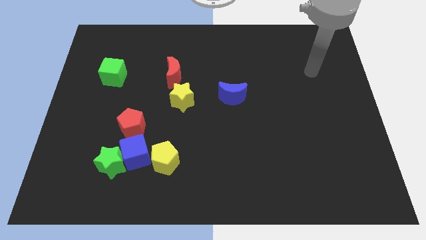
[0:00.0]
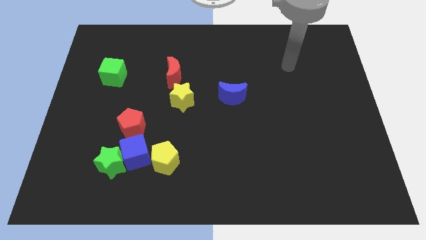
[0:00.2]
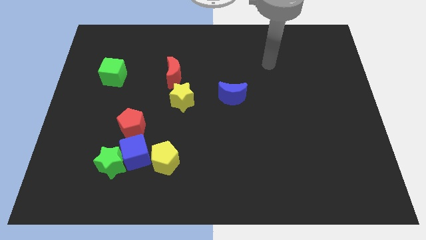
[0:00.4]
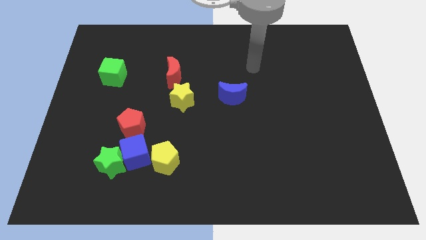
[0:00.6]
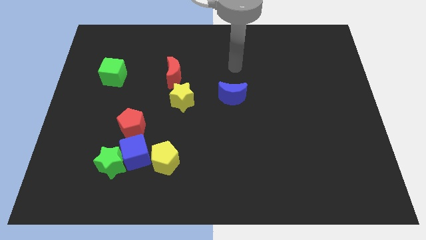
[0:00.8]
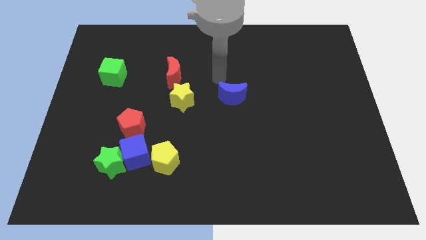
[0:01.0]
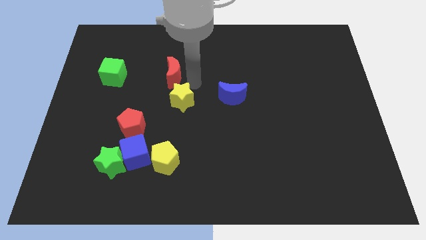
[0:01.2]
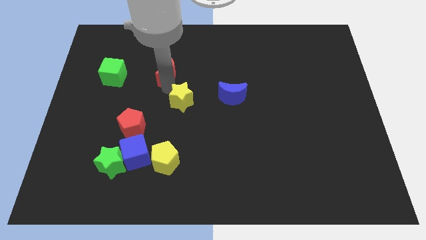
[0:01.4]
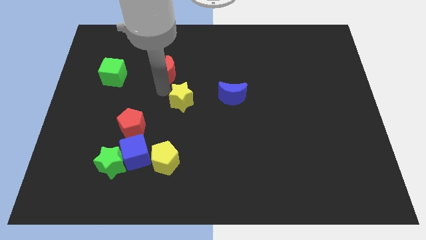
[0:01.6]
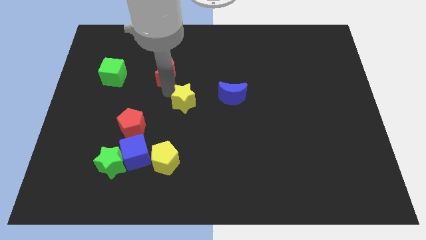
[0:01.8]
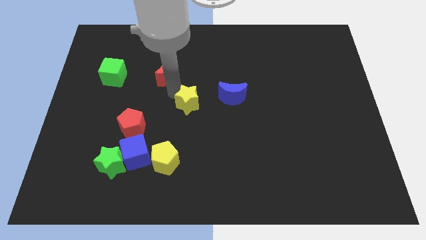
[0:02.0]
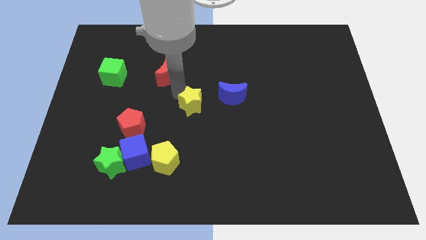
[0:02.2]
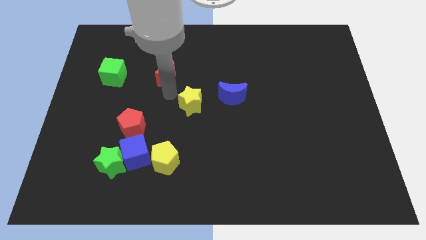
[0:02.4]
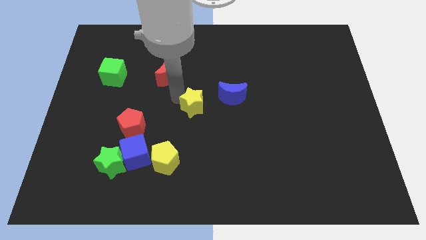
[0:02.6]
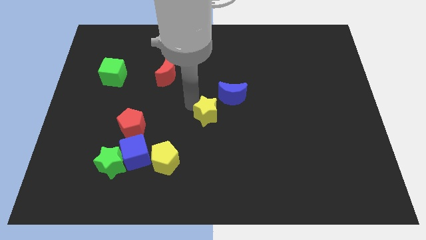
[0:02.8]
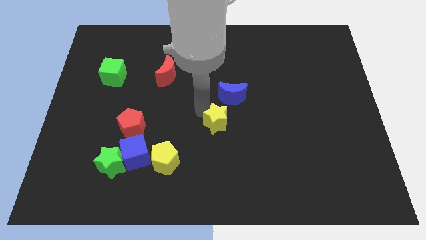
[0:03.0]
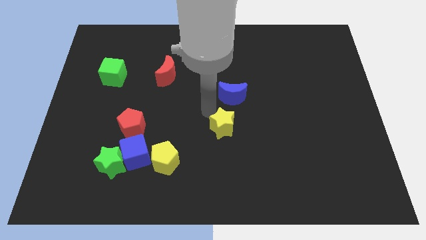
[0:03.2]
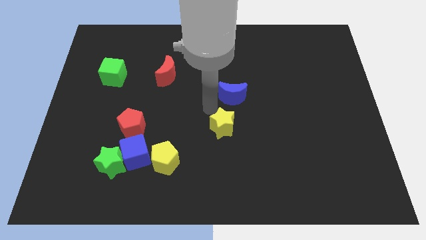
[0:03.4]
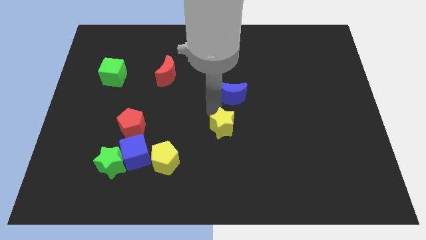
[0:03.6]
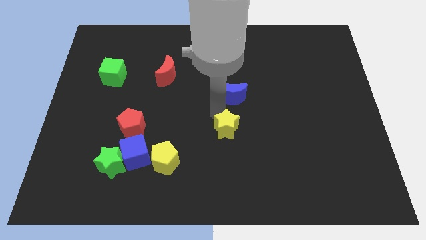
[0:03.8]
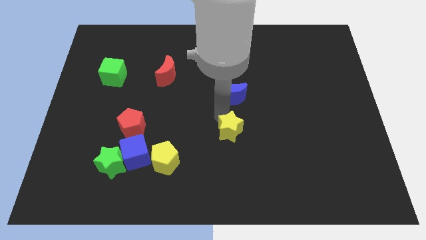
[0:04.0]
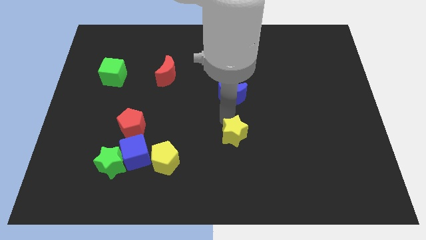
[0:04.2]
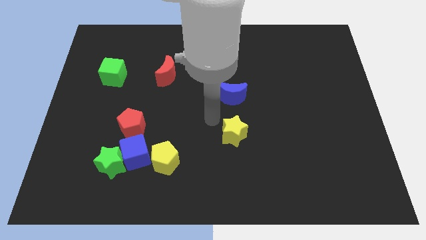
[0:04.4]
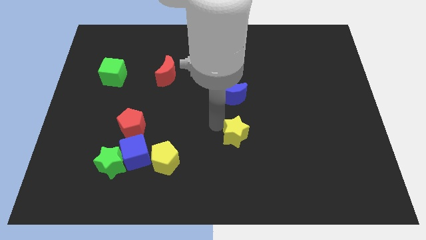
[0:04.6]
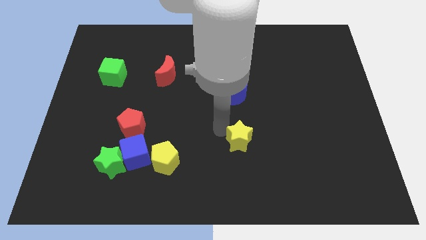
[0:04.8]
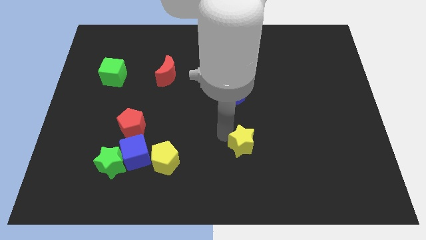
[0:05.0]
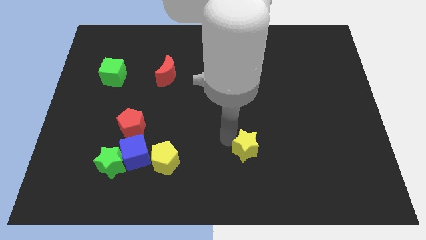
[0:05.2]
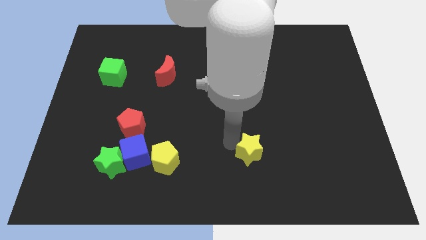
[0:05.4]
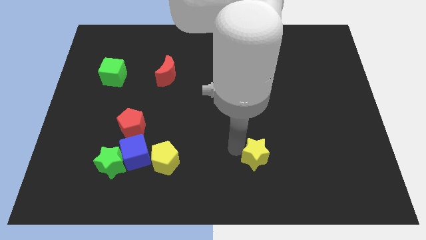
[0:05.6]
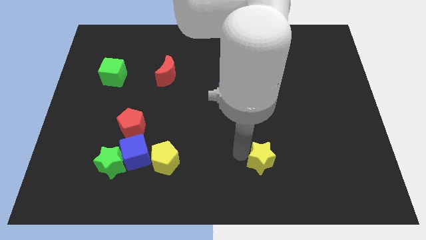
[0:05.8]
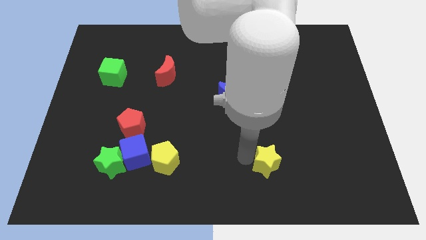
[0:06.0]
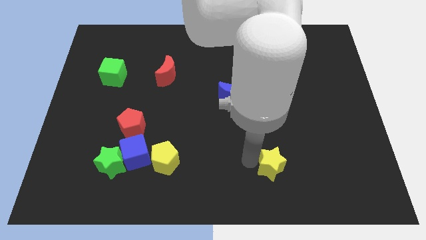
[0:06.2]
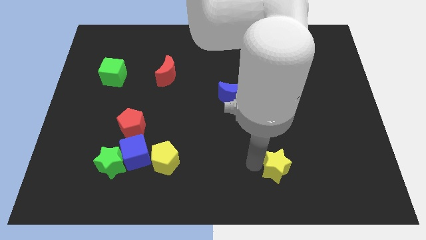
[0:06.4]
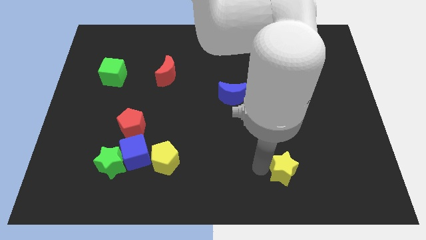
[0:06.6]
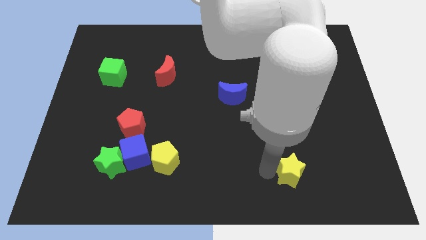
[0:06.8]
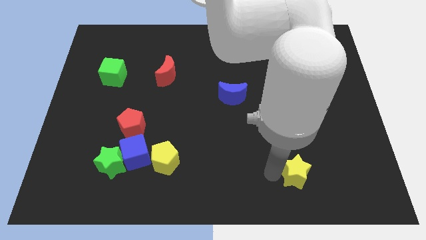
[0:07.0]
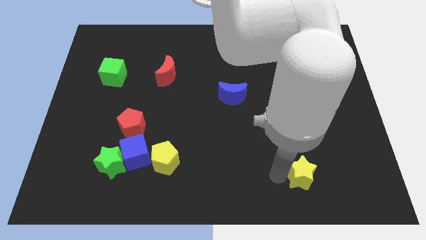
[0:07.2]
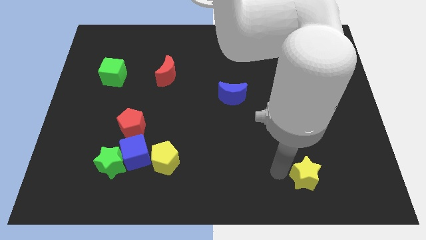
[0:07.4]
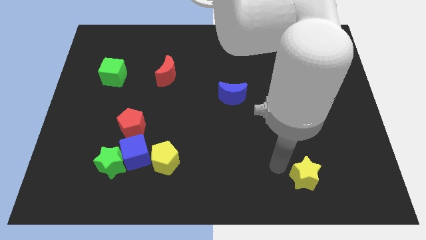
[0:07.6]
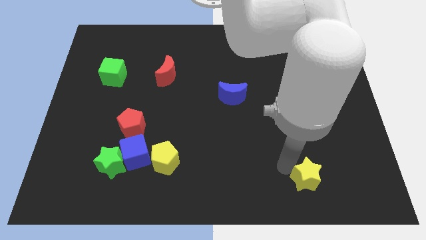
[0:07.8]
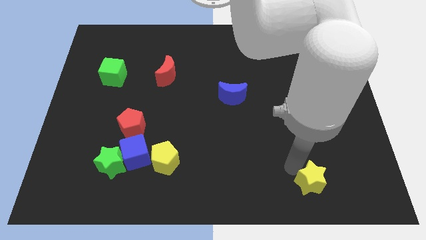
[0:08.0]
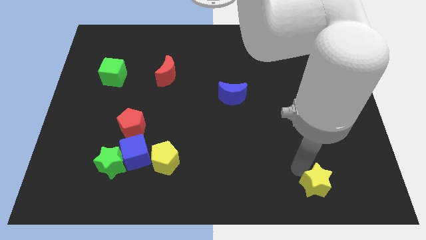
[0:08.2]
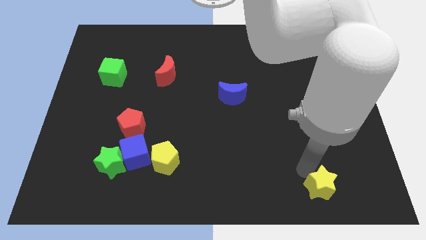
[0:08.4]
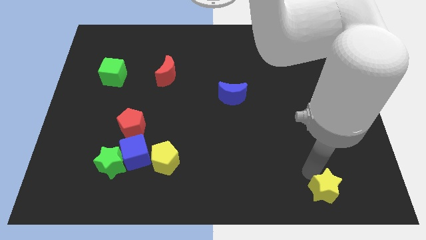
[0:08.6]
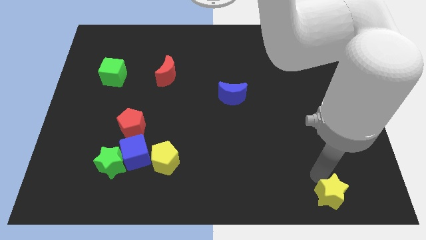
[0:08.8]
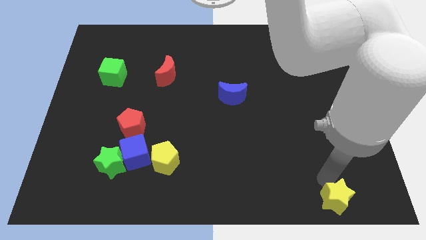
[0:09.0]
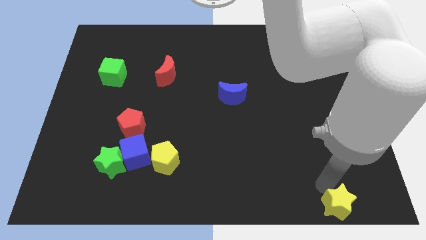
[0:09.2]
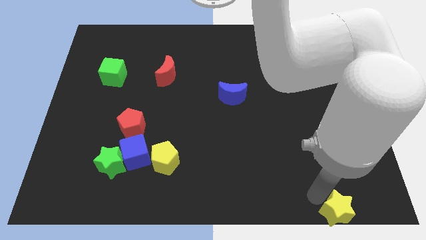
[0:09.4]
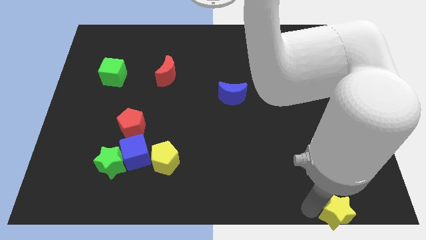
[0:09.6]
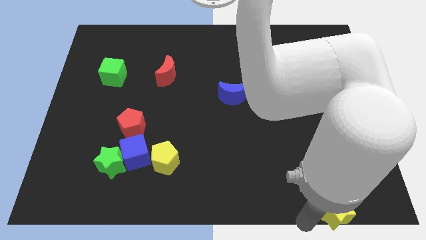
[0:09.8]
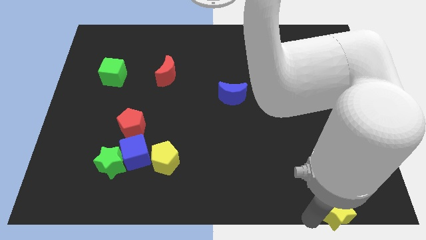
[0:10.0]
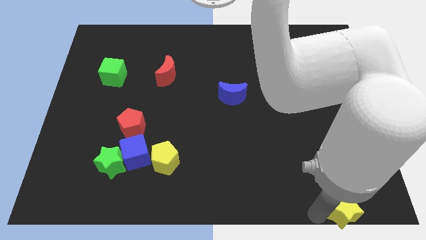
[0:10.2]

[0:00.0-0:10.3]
push the yellow star to the lower right corner

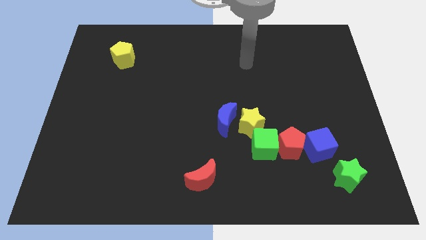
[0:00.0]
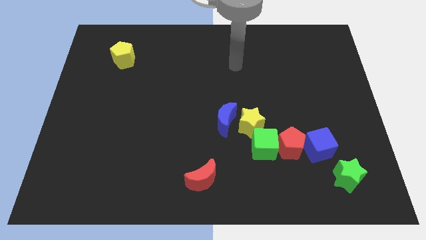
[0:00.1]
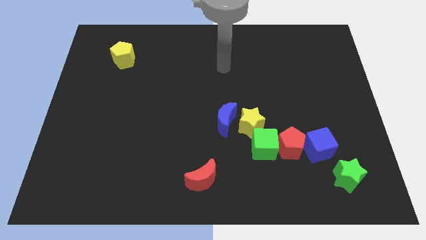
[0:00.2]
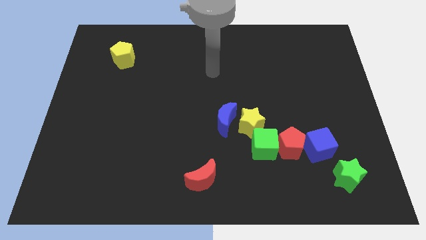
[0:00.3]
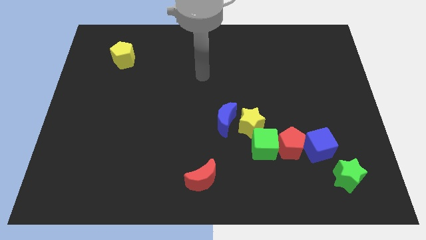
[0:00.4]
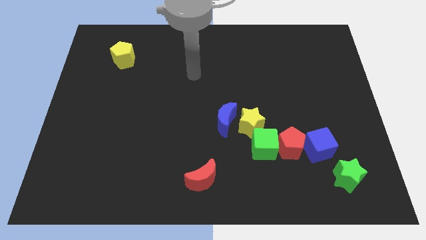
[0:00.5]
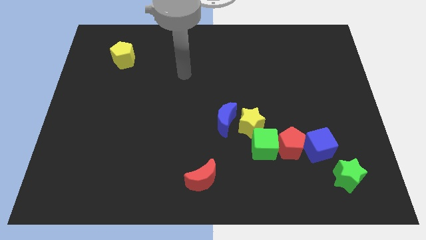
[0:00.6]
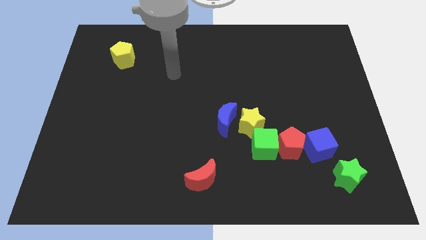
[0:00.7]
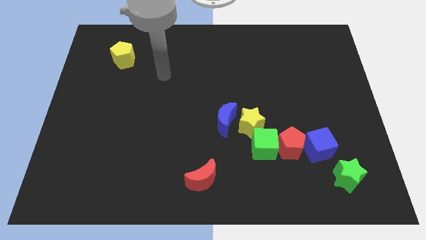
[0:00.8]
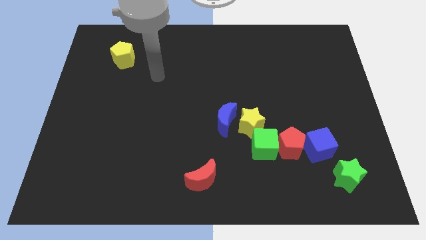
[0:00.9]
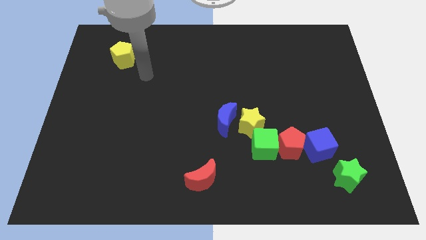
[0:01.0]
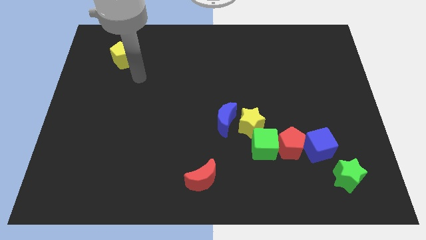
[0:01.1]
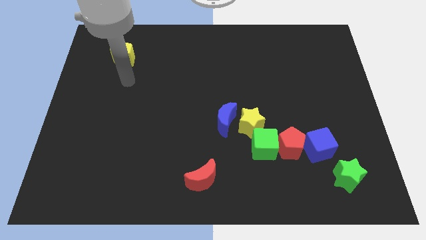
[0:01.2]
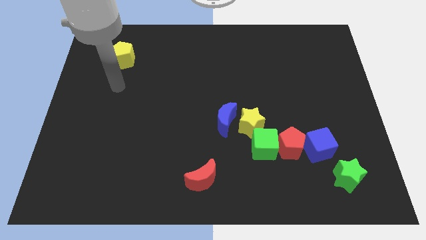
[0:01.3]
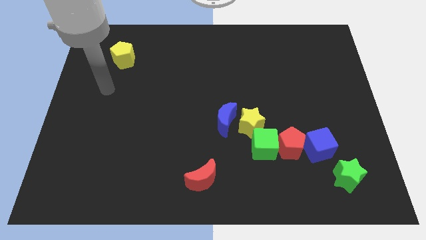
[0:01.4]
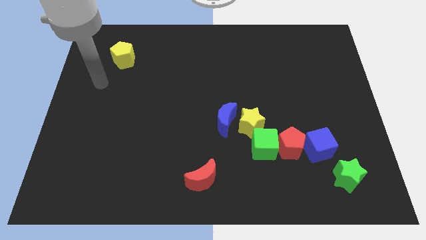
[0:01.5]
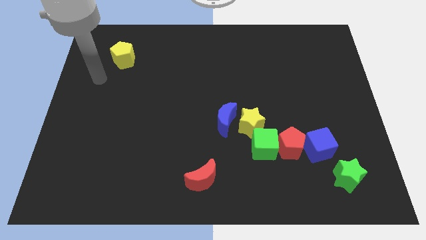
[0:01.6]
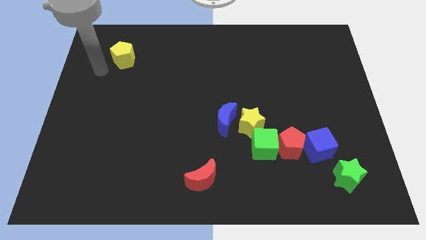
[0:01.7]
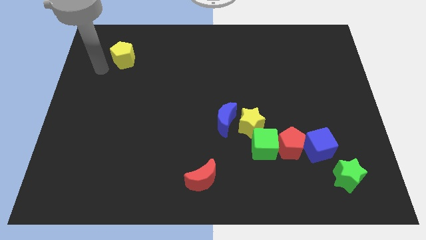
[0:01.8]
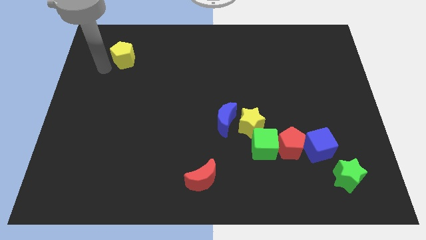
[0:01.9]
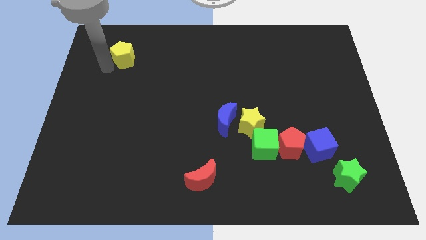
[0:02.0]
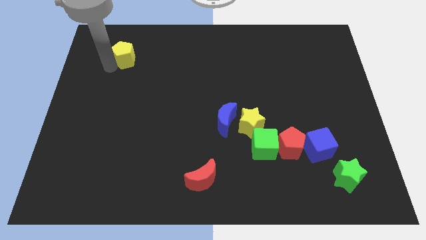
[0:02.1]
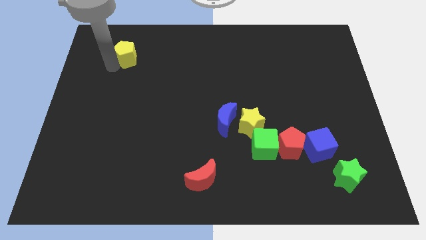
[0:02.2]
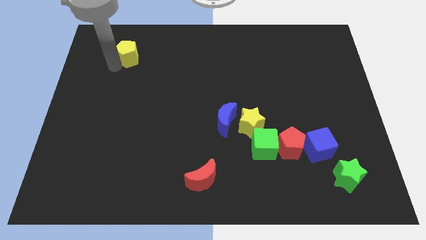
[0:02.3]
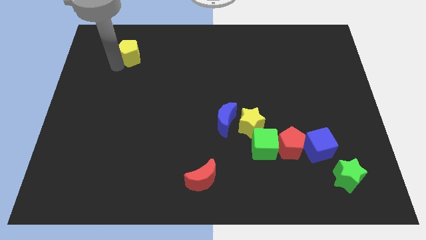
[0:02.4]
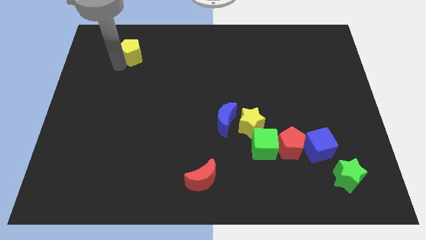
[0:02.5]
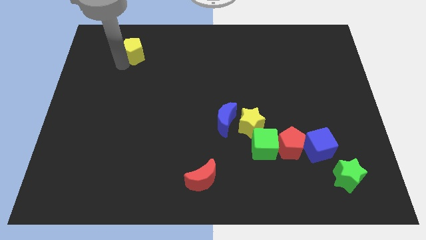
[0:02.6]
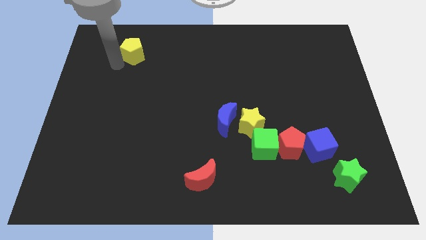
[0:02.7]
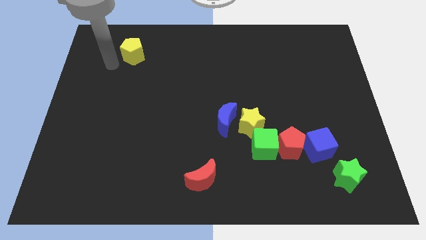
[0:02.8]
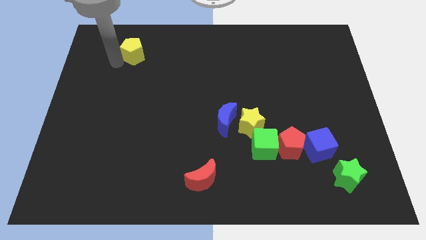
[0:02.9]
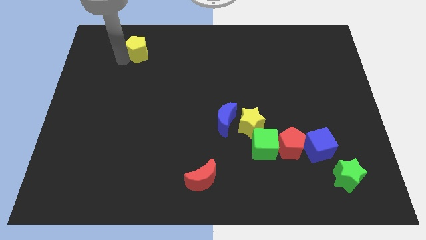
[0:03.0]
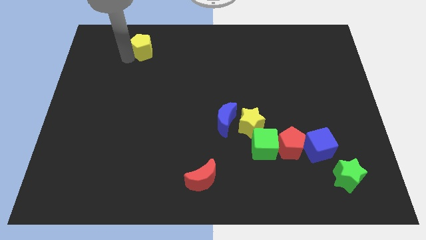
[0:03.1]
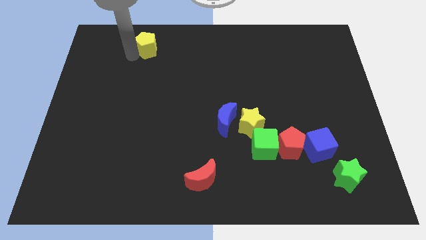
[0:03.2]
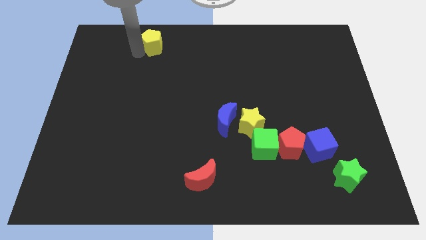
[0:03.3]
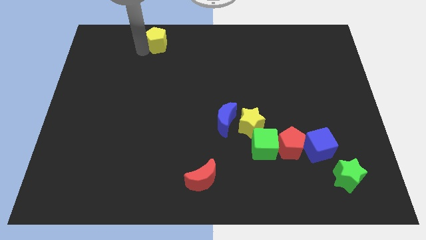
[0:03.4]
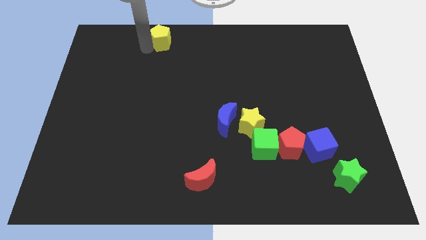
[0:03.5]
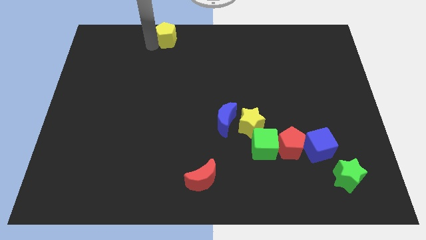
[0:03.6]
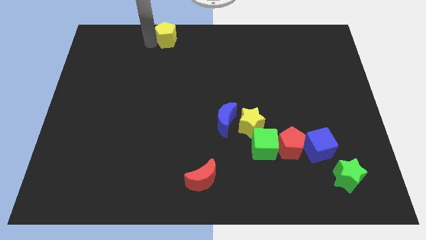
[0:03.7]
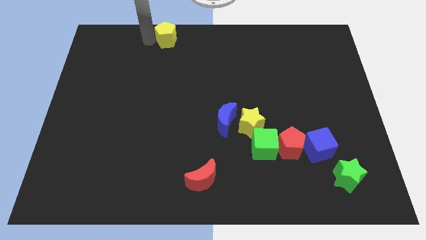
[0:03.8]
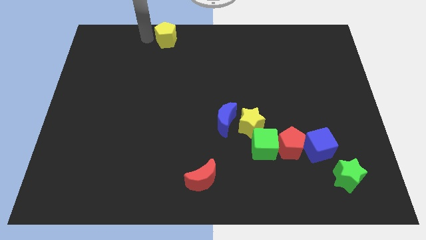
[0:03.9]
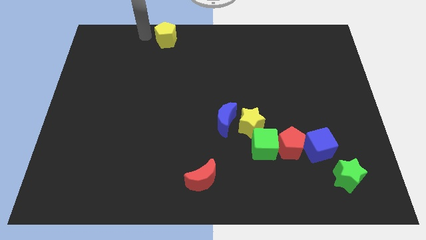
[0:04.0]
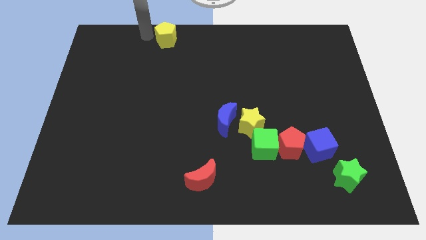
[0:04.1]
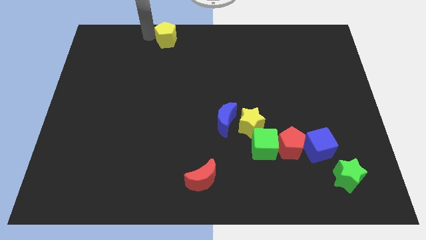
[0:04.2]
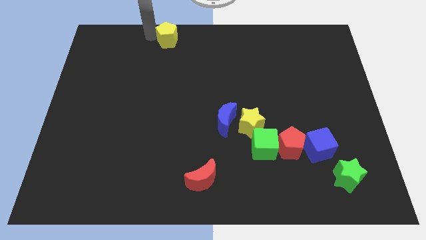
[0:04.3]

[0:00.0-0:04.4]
put the yellow pentagon to the top side
